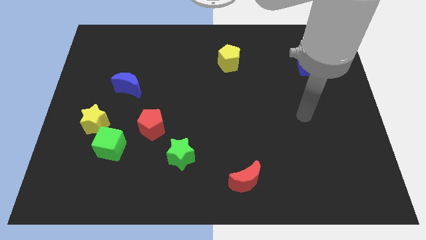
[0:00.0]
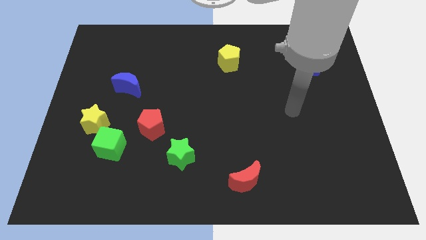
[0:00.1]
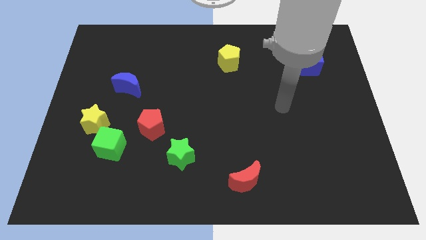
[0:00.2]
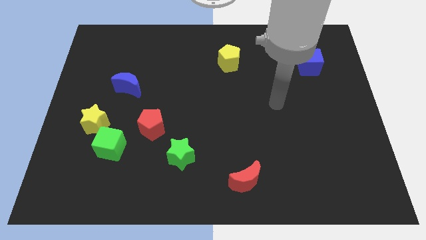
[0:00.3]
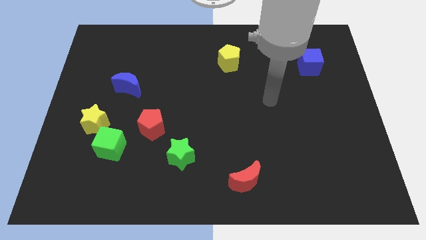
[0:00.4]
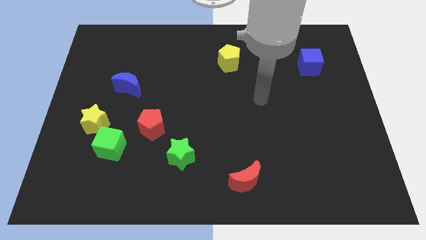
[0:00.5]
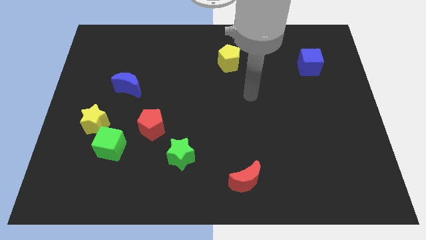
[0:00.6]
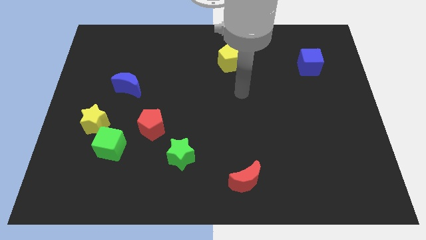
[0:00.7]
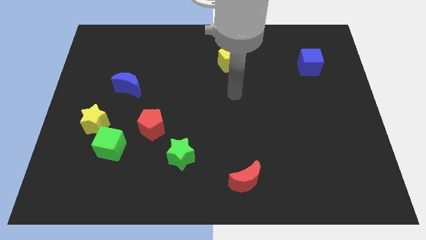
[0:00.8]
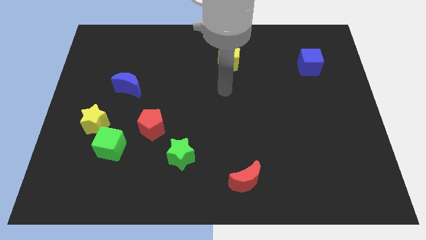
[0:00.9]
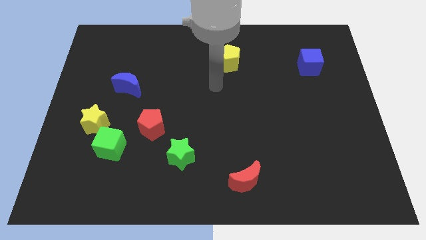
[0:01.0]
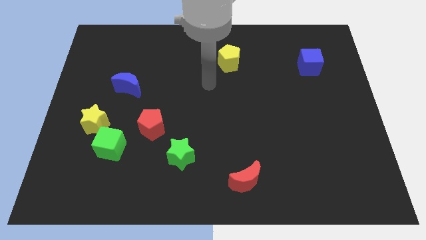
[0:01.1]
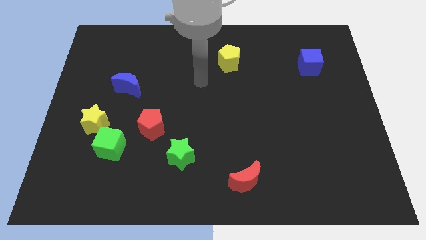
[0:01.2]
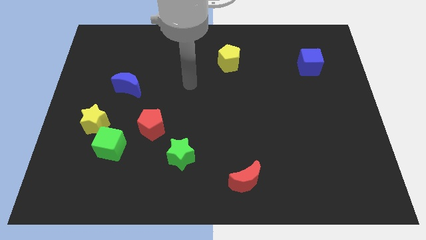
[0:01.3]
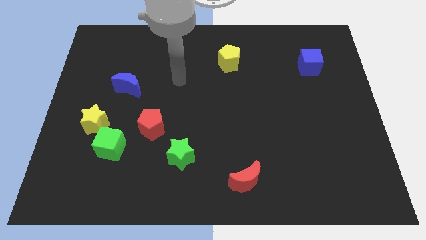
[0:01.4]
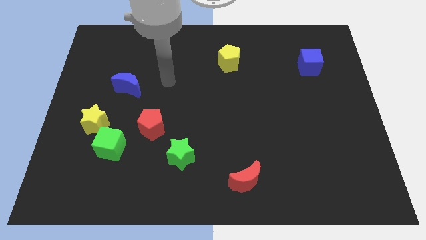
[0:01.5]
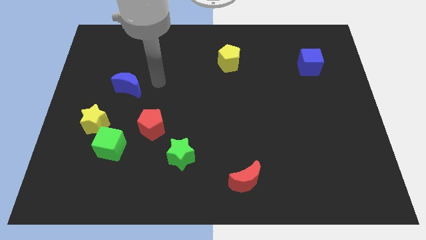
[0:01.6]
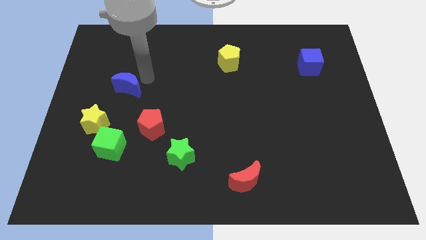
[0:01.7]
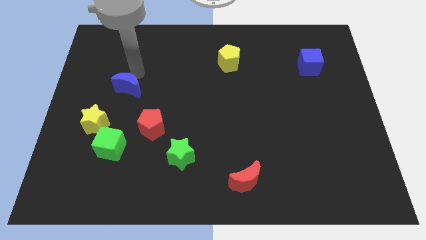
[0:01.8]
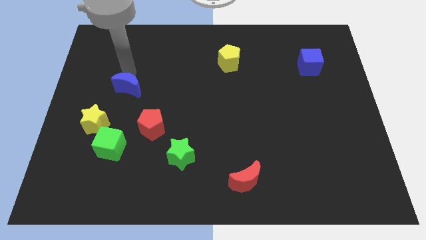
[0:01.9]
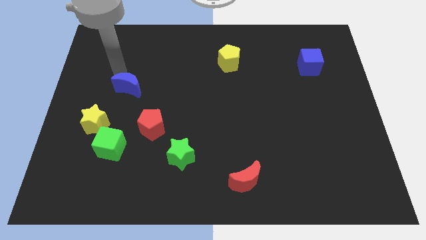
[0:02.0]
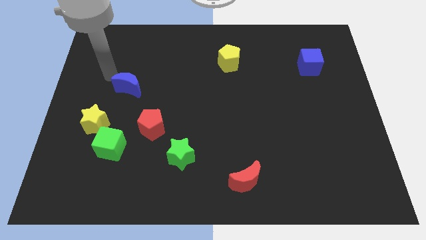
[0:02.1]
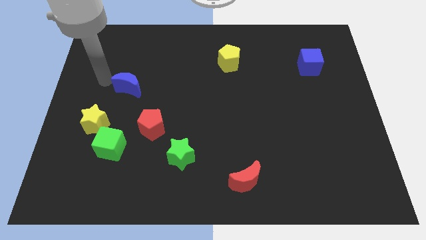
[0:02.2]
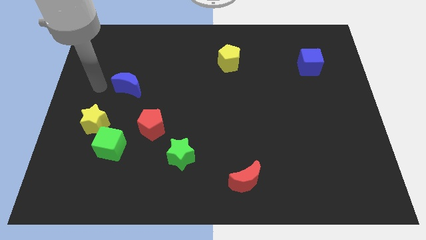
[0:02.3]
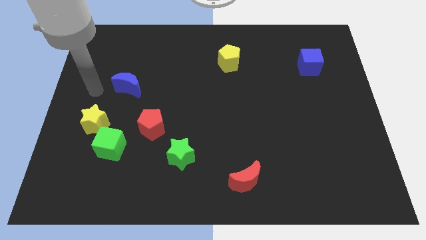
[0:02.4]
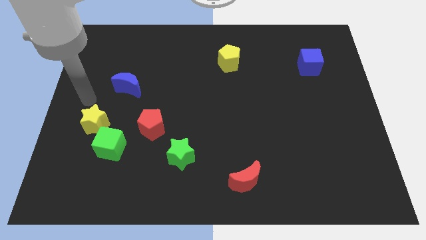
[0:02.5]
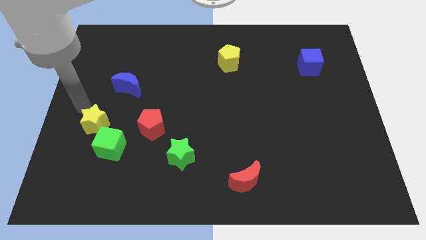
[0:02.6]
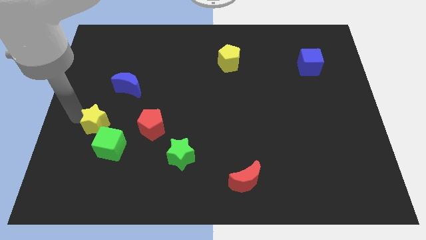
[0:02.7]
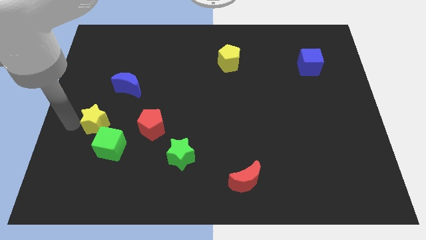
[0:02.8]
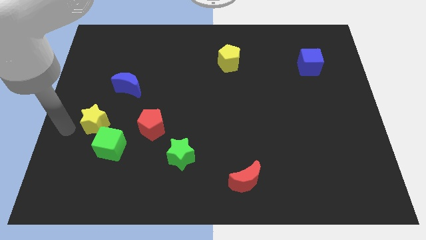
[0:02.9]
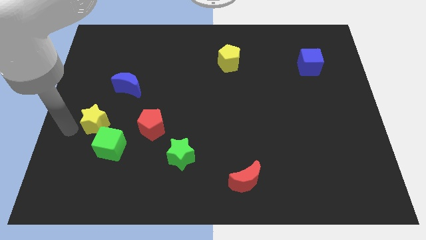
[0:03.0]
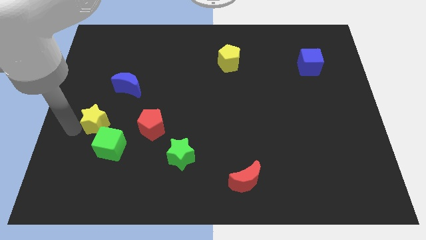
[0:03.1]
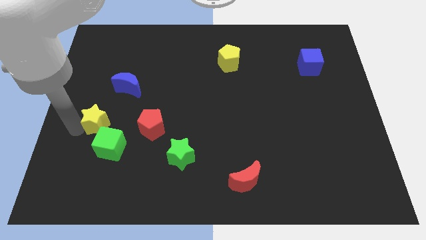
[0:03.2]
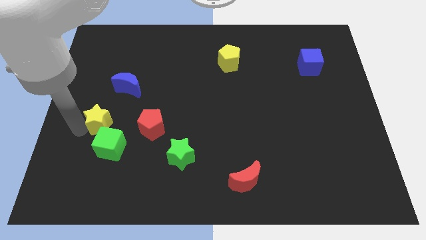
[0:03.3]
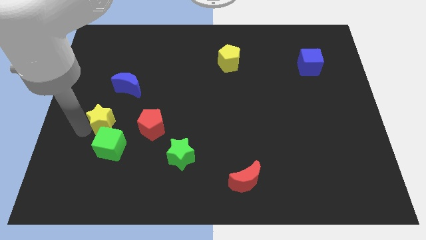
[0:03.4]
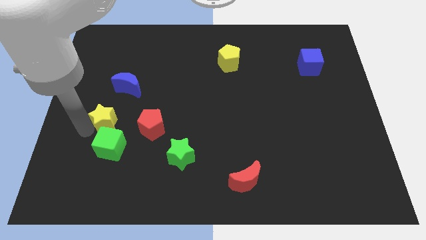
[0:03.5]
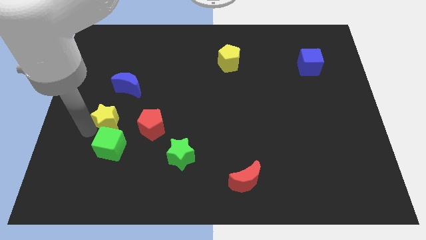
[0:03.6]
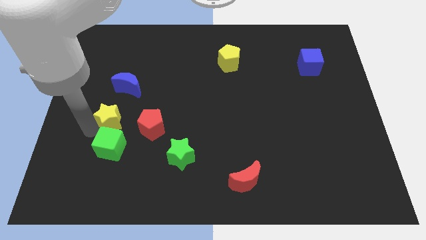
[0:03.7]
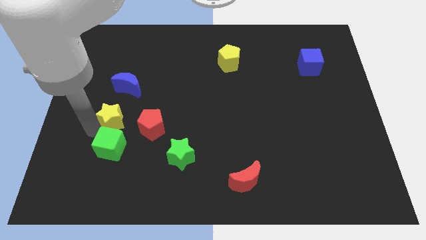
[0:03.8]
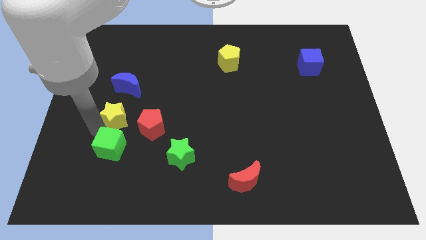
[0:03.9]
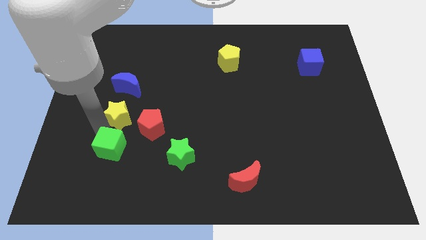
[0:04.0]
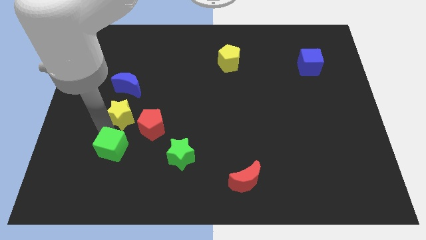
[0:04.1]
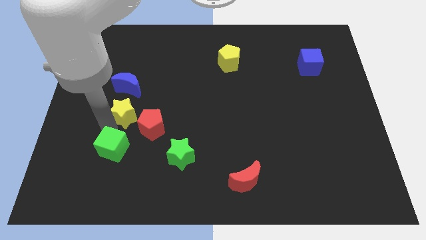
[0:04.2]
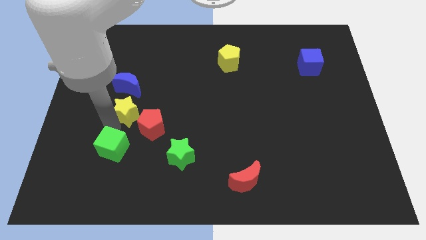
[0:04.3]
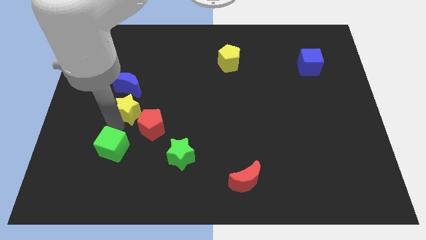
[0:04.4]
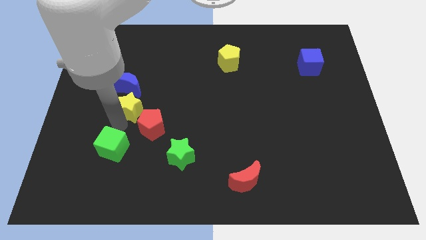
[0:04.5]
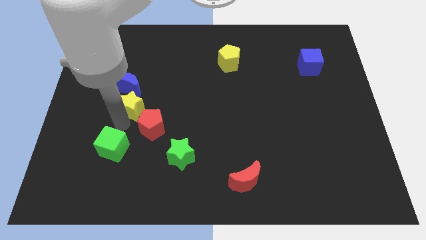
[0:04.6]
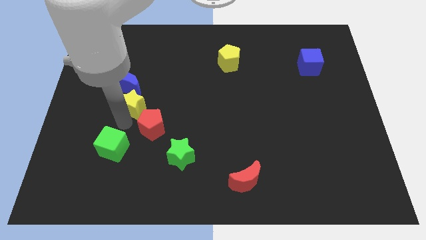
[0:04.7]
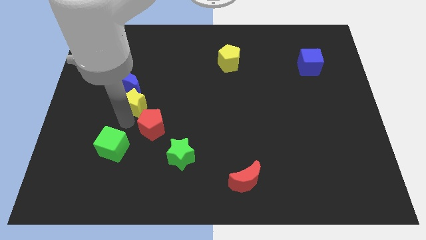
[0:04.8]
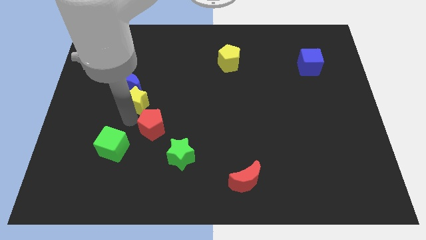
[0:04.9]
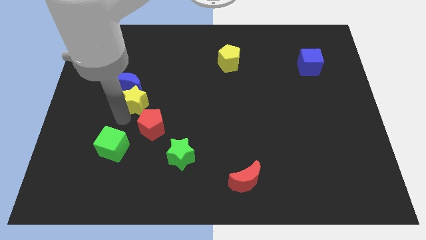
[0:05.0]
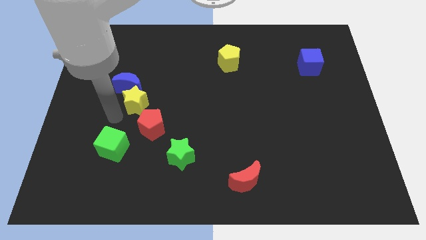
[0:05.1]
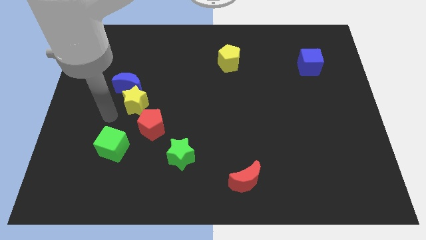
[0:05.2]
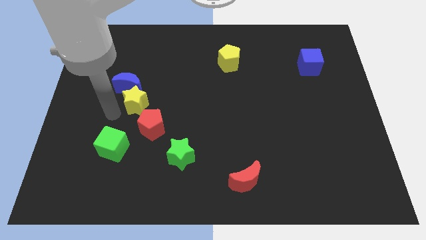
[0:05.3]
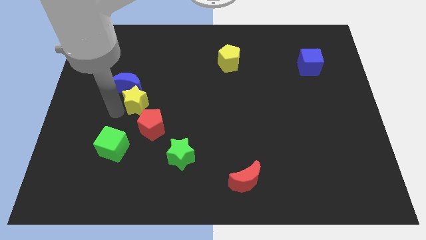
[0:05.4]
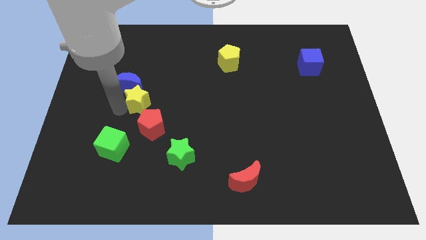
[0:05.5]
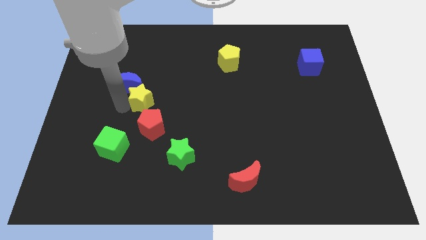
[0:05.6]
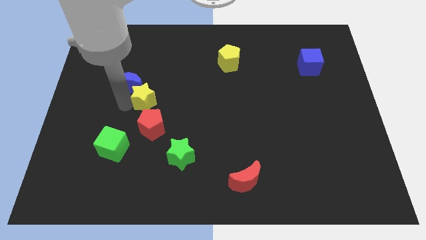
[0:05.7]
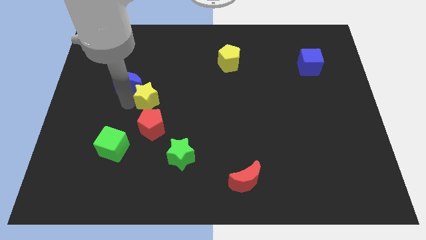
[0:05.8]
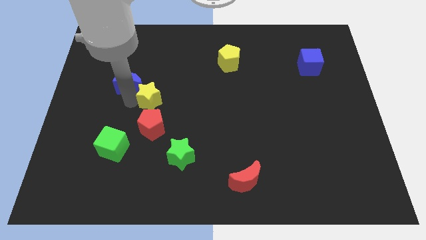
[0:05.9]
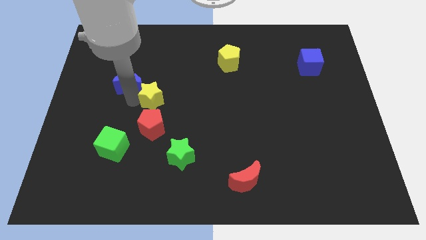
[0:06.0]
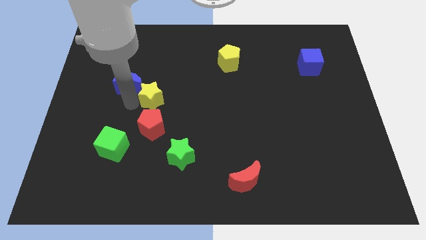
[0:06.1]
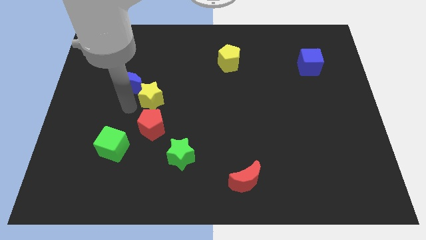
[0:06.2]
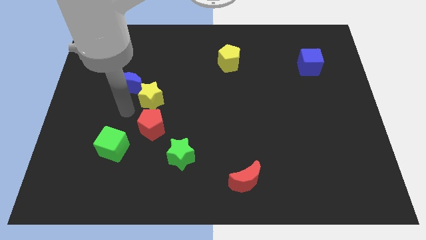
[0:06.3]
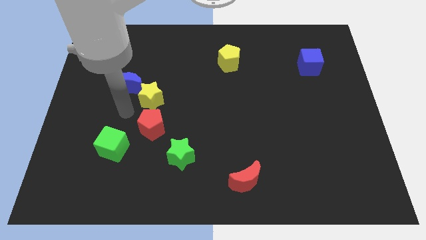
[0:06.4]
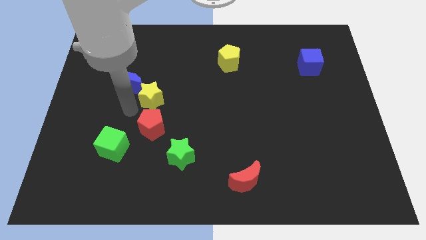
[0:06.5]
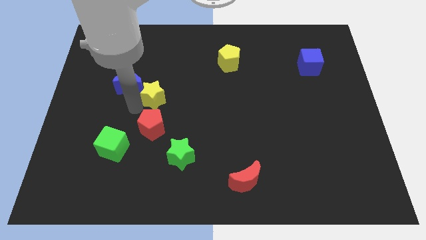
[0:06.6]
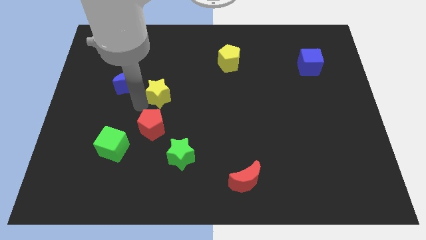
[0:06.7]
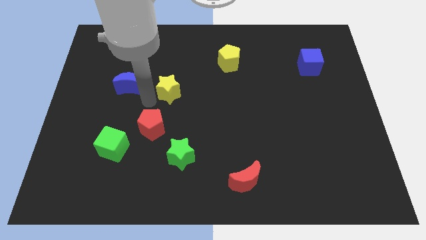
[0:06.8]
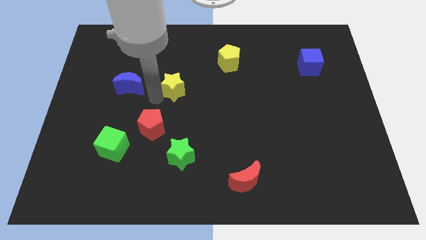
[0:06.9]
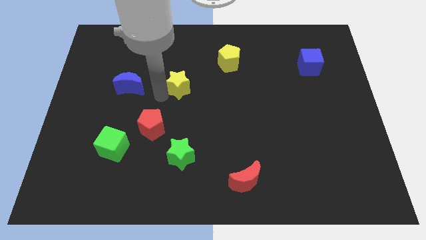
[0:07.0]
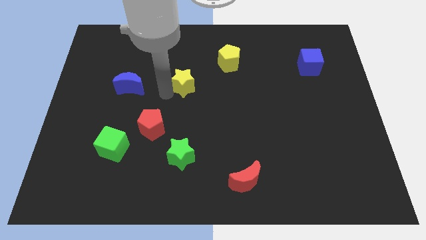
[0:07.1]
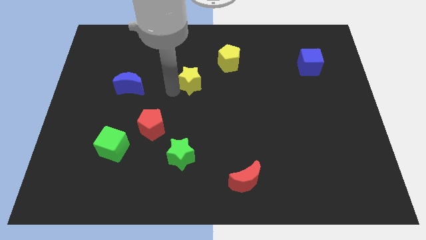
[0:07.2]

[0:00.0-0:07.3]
put the yellow star to the bottom left side of the yellow pentagon
